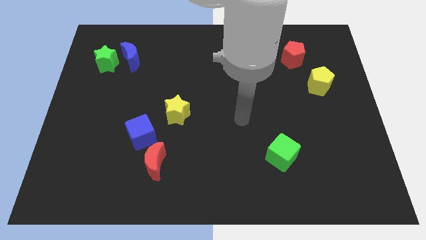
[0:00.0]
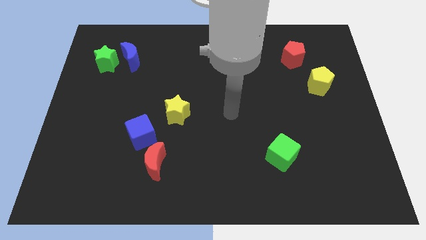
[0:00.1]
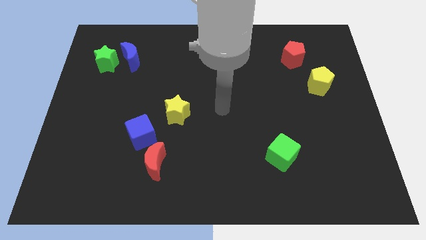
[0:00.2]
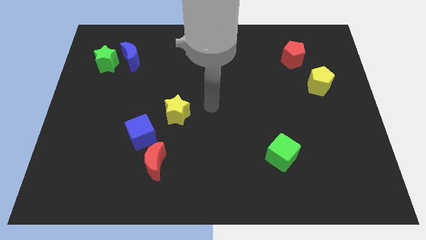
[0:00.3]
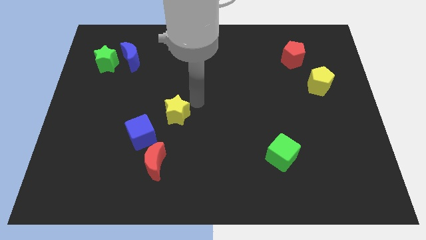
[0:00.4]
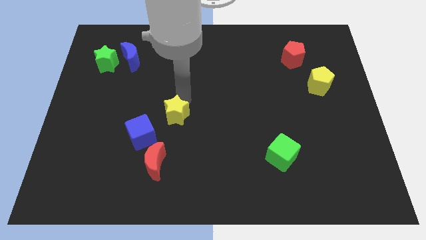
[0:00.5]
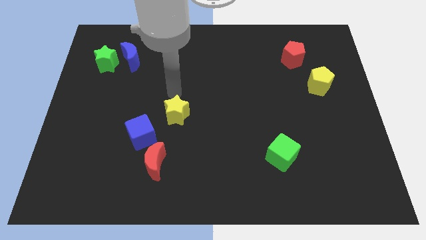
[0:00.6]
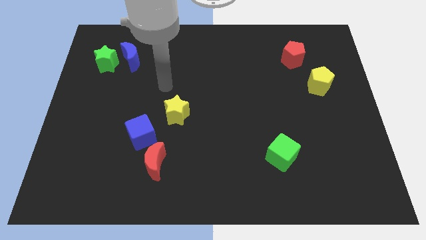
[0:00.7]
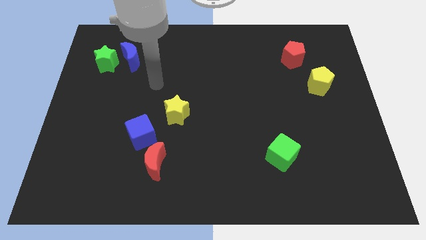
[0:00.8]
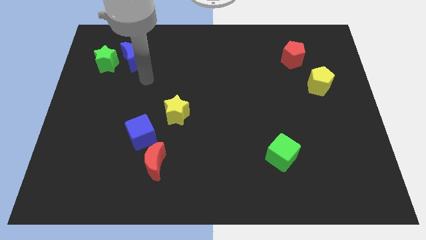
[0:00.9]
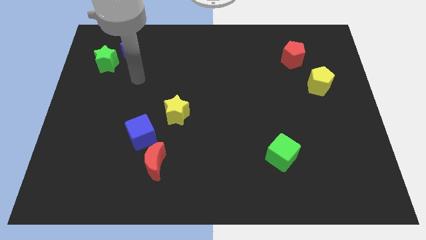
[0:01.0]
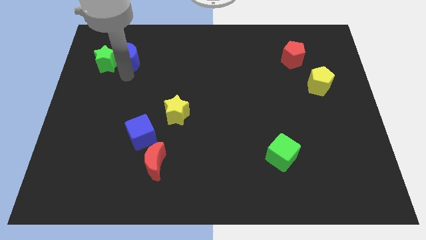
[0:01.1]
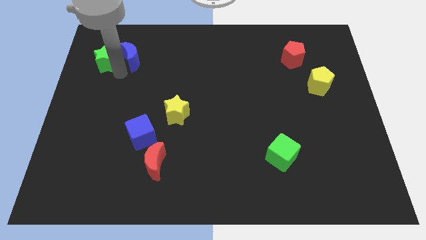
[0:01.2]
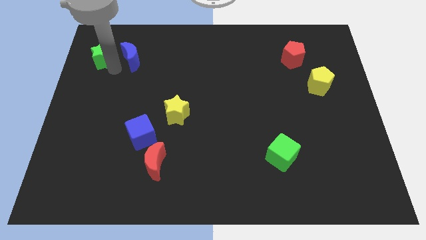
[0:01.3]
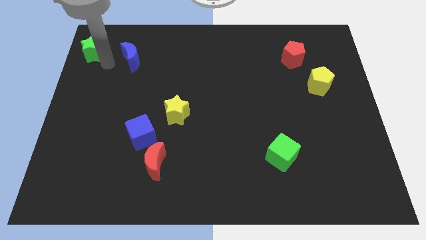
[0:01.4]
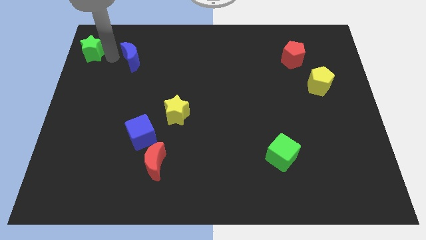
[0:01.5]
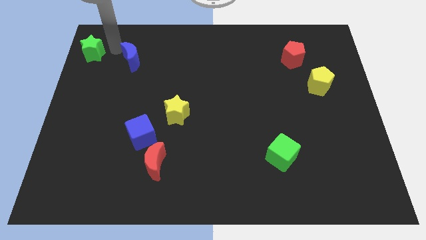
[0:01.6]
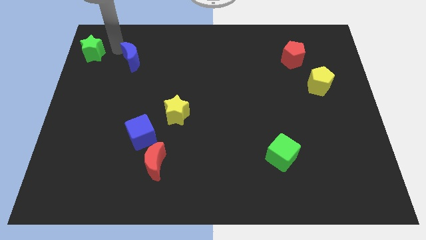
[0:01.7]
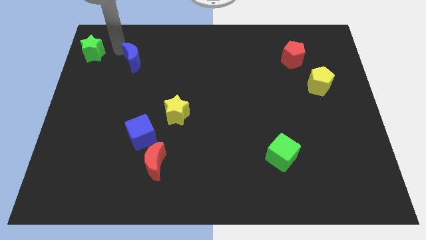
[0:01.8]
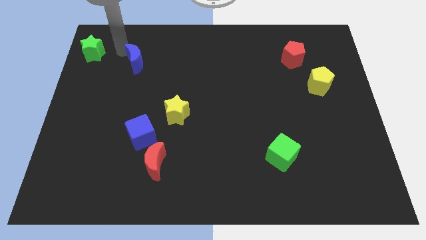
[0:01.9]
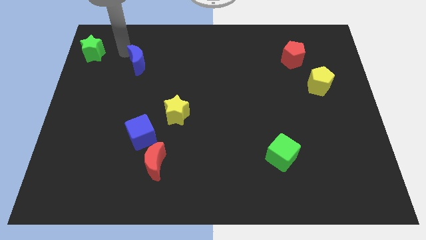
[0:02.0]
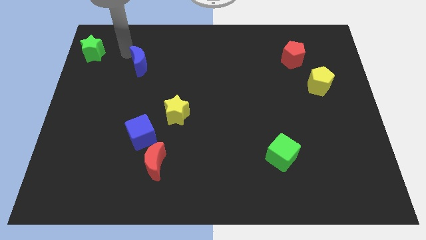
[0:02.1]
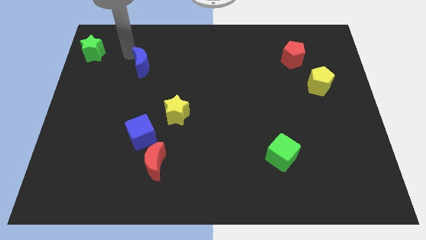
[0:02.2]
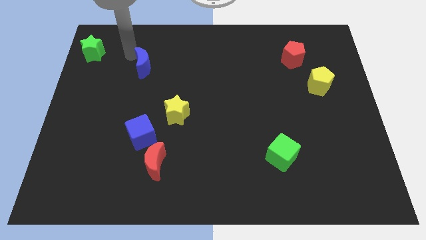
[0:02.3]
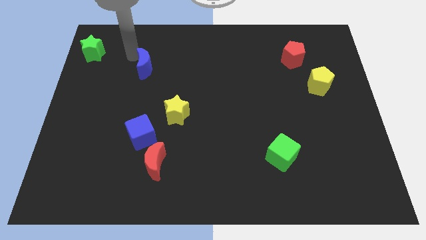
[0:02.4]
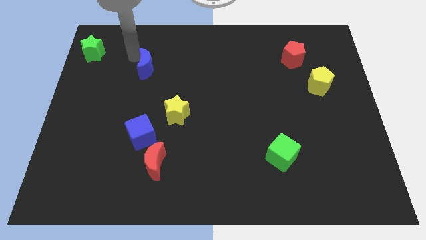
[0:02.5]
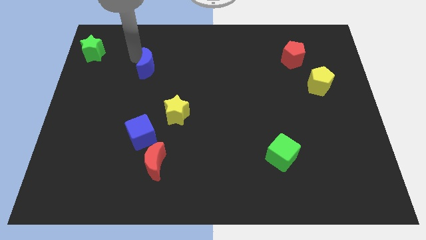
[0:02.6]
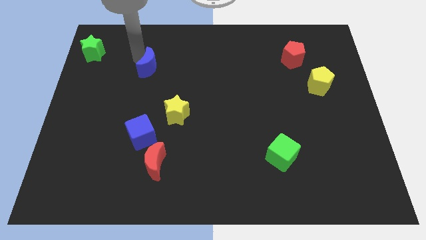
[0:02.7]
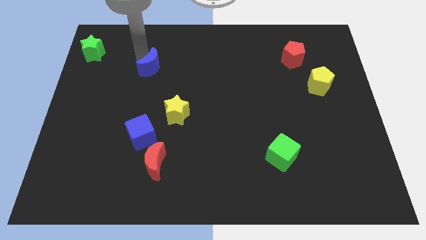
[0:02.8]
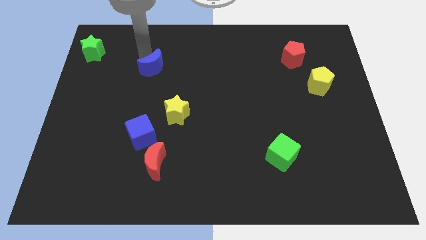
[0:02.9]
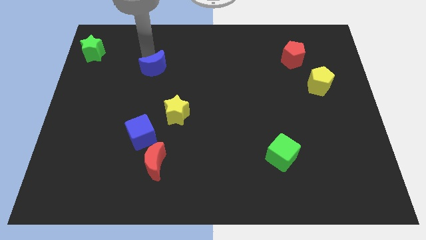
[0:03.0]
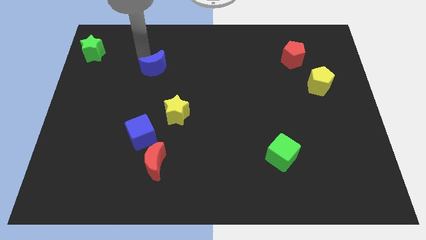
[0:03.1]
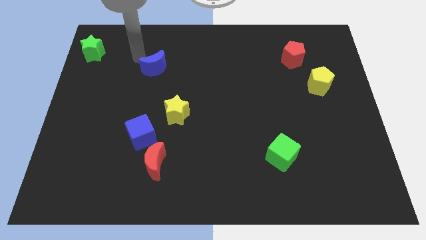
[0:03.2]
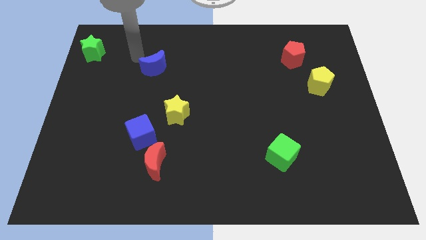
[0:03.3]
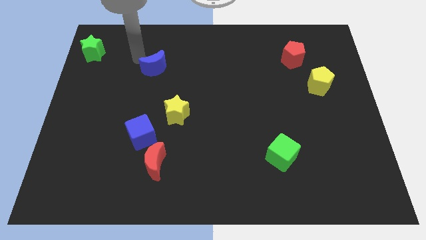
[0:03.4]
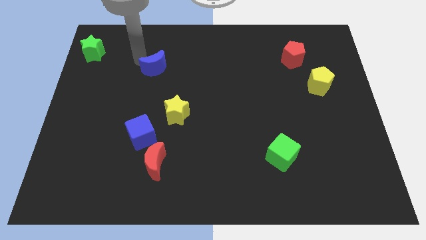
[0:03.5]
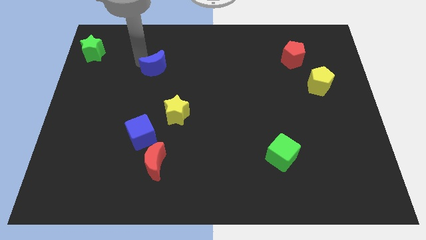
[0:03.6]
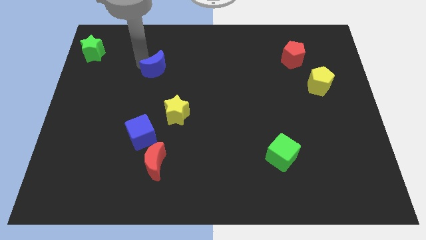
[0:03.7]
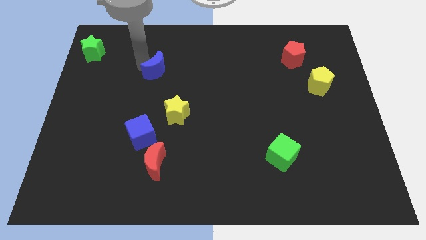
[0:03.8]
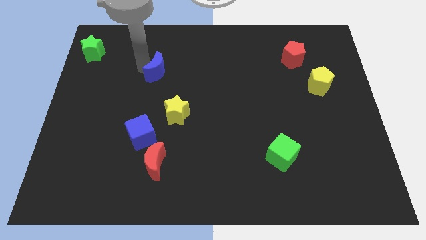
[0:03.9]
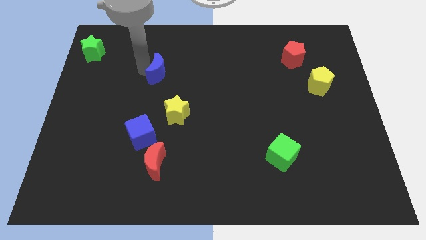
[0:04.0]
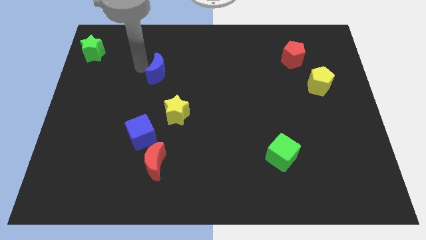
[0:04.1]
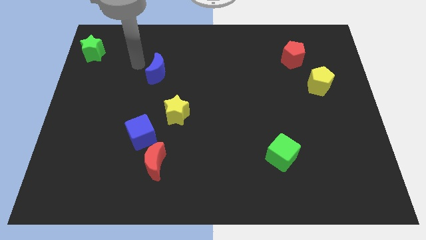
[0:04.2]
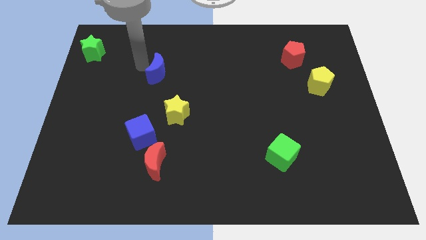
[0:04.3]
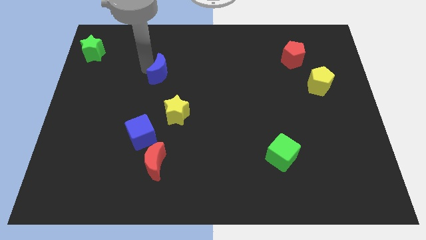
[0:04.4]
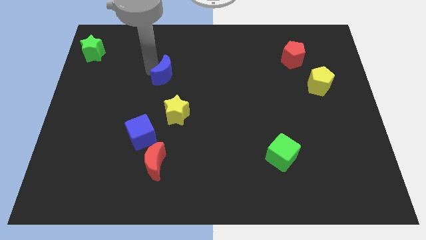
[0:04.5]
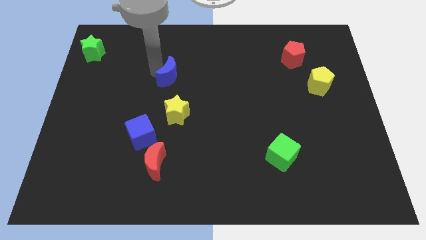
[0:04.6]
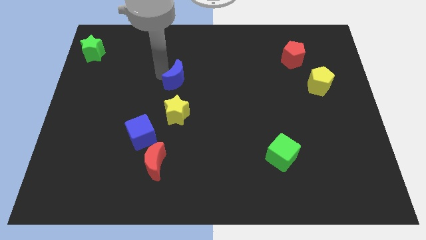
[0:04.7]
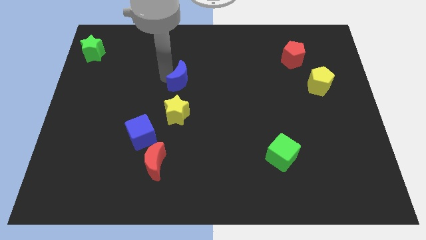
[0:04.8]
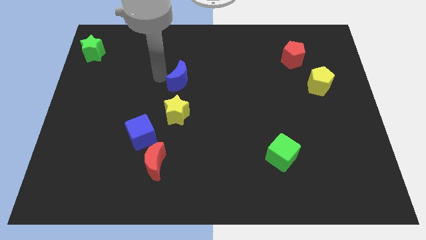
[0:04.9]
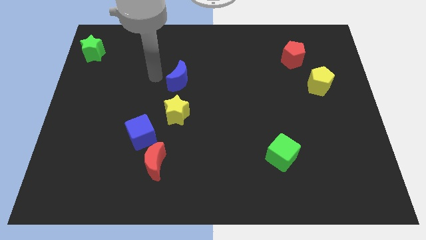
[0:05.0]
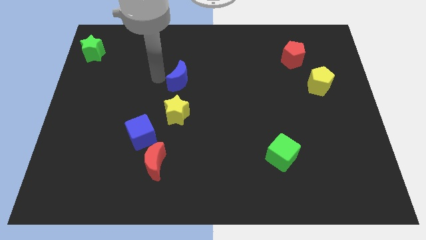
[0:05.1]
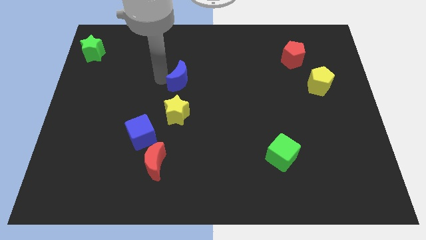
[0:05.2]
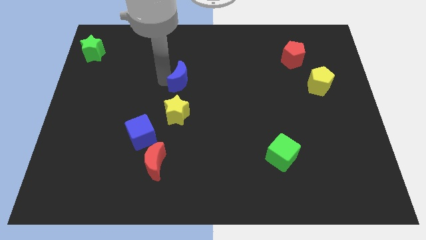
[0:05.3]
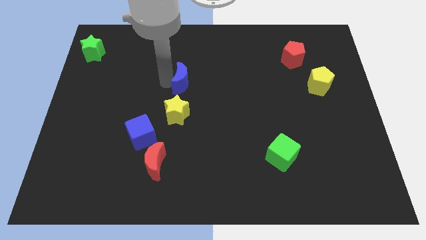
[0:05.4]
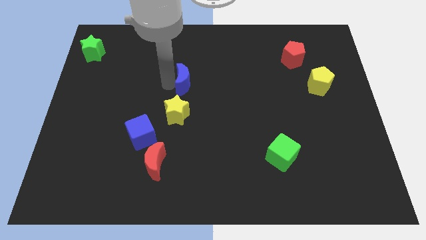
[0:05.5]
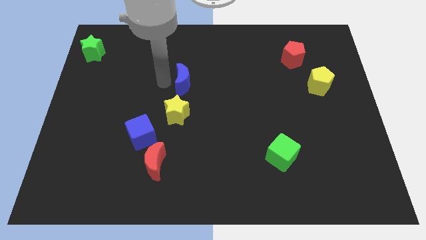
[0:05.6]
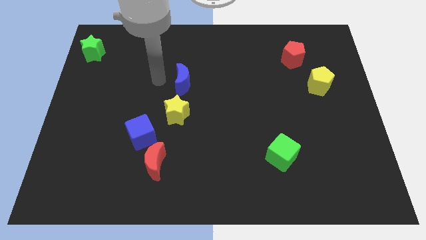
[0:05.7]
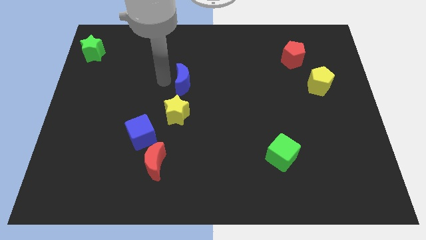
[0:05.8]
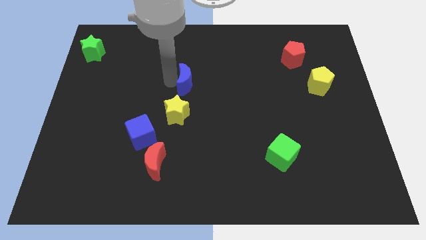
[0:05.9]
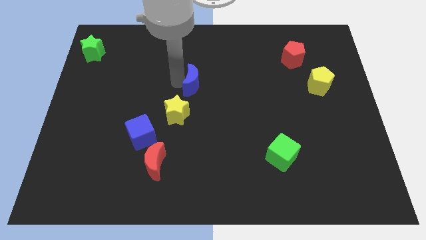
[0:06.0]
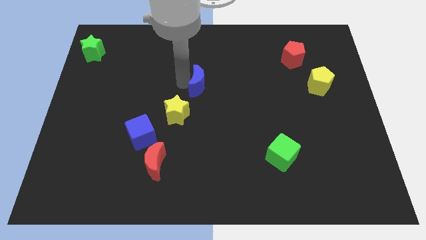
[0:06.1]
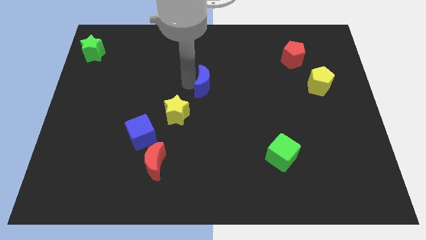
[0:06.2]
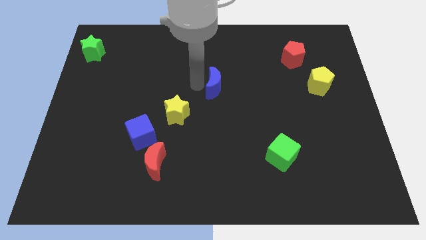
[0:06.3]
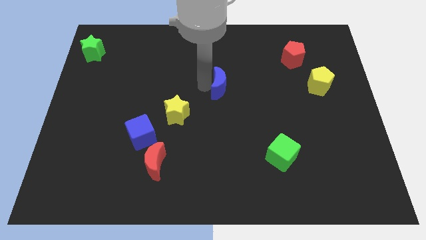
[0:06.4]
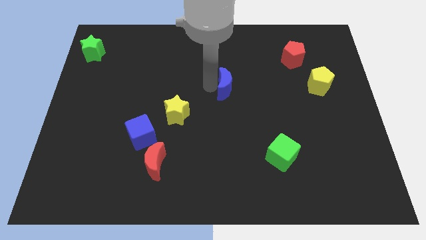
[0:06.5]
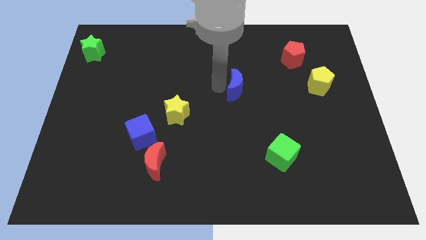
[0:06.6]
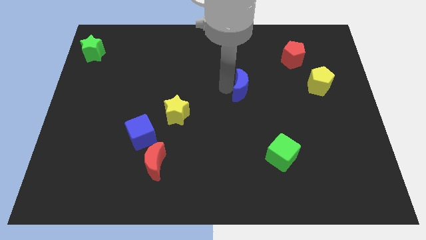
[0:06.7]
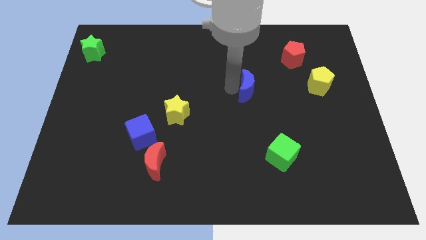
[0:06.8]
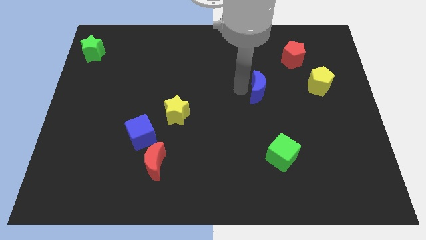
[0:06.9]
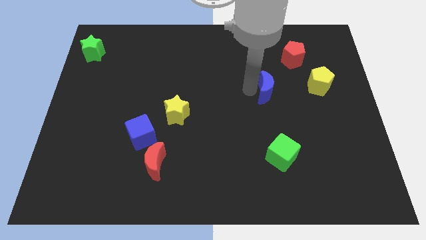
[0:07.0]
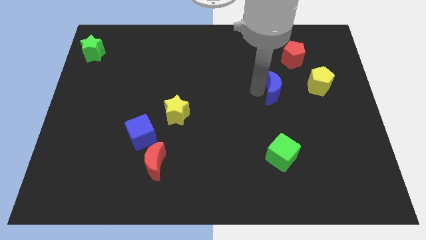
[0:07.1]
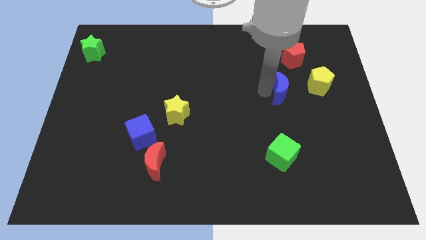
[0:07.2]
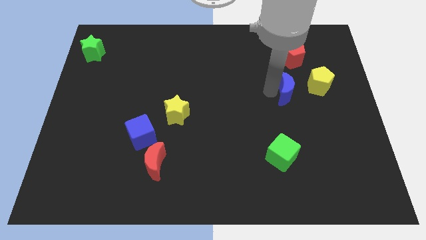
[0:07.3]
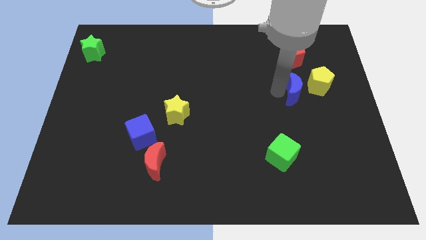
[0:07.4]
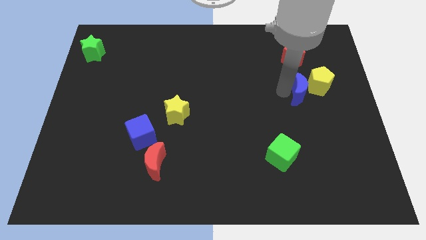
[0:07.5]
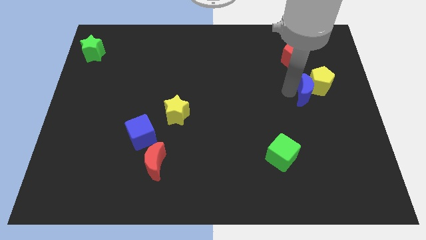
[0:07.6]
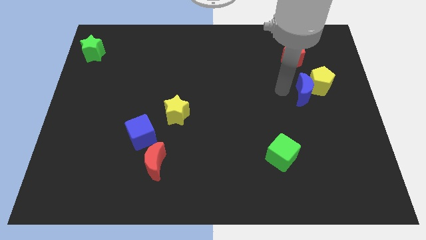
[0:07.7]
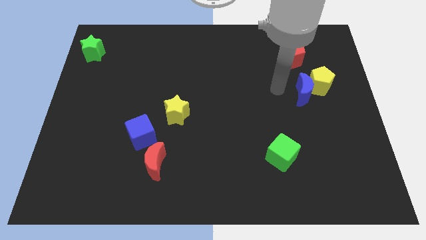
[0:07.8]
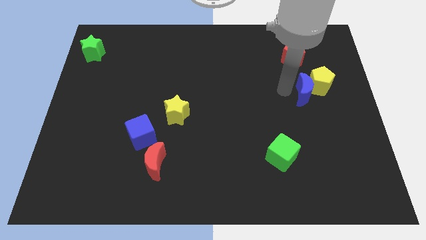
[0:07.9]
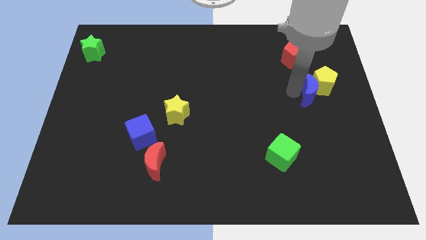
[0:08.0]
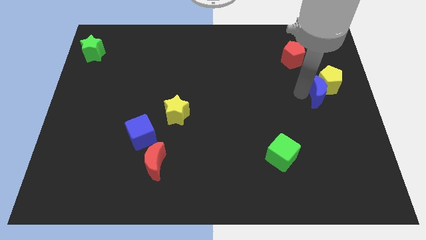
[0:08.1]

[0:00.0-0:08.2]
slide the blue moon to the center right
